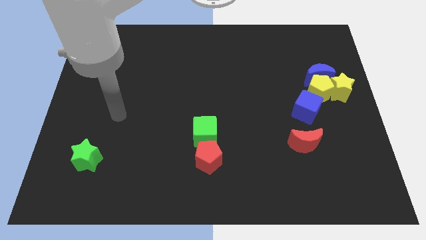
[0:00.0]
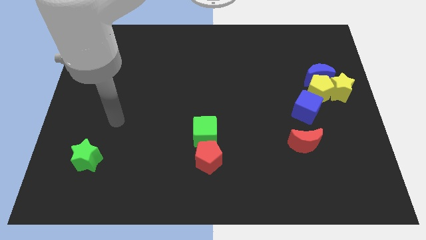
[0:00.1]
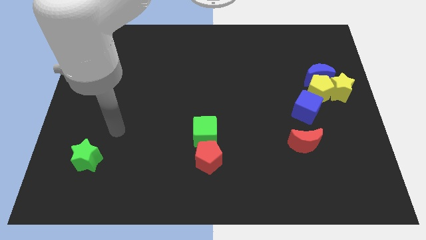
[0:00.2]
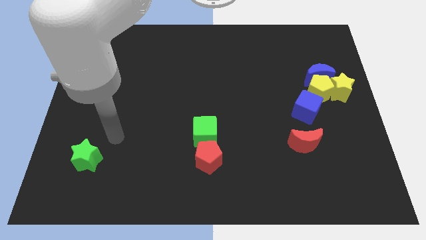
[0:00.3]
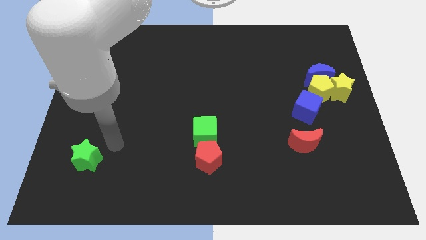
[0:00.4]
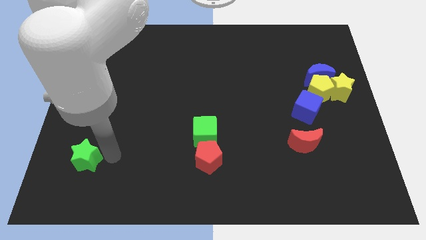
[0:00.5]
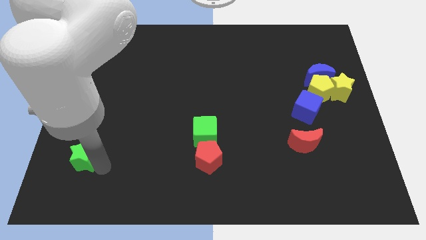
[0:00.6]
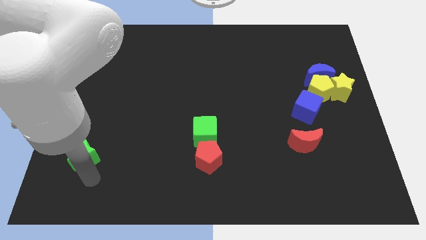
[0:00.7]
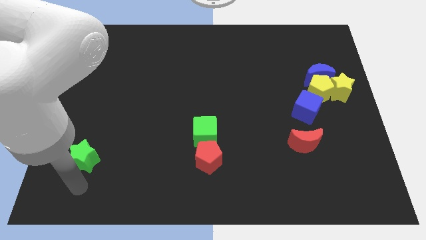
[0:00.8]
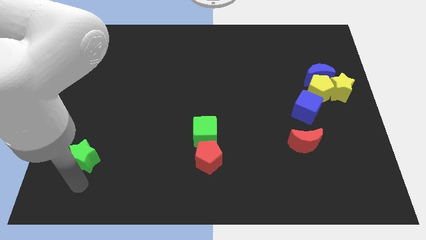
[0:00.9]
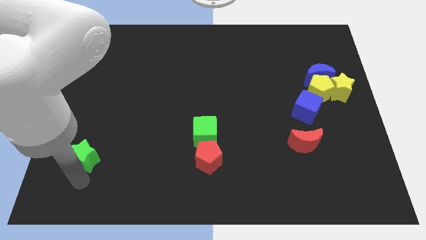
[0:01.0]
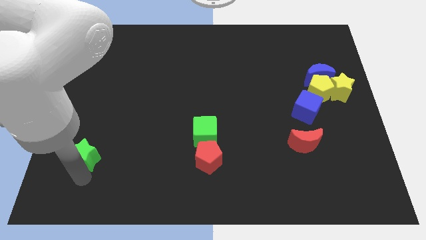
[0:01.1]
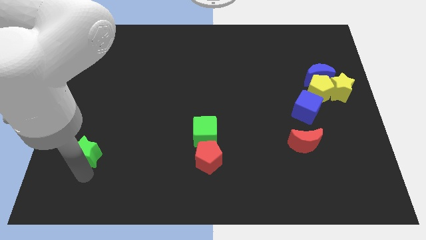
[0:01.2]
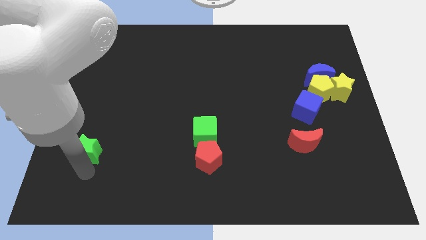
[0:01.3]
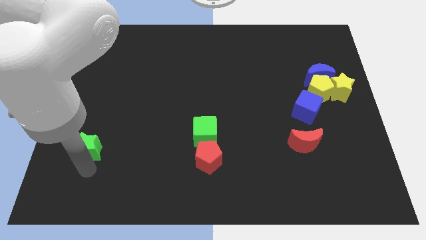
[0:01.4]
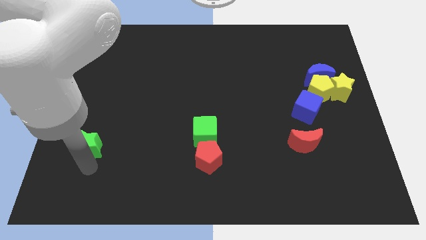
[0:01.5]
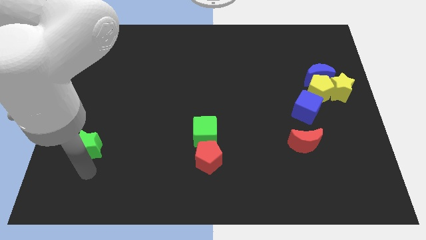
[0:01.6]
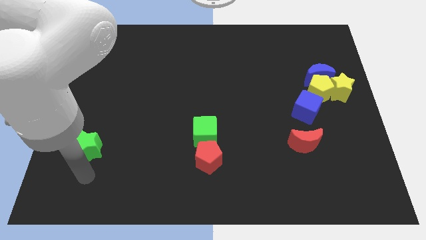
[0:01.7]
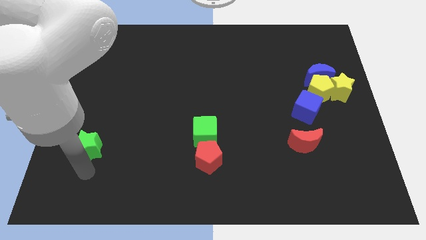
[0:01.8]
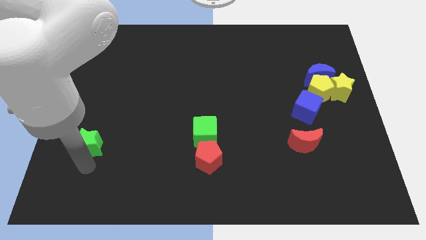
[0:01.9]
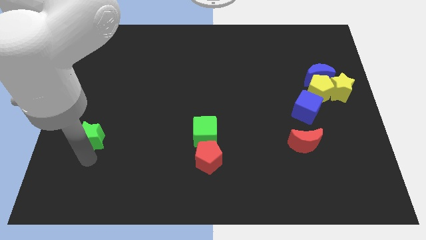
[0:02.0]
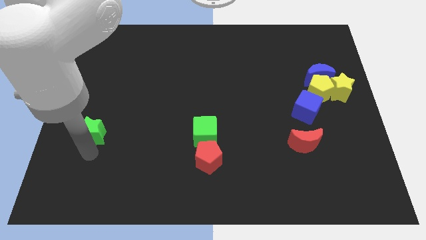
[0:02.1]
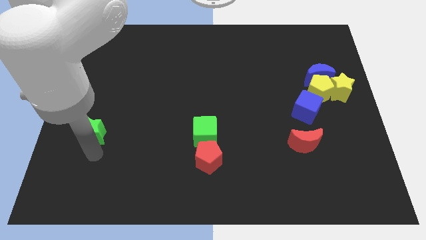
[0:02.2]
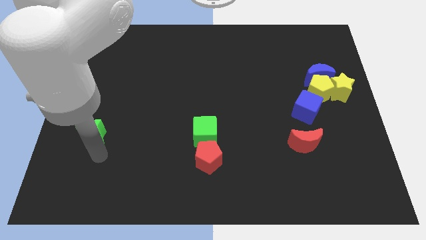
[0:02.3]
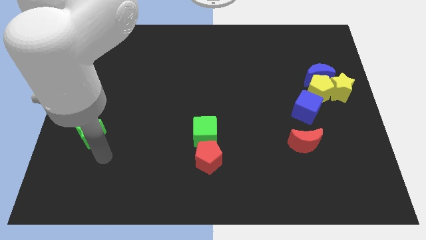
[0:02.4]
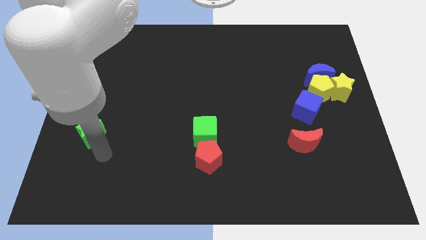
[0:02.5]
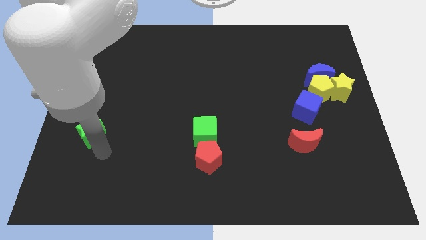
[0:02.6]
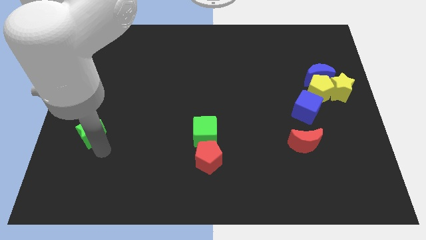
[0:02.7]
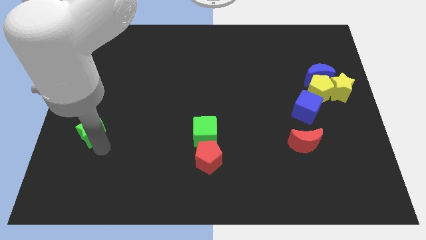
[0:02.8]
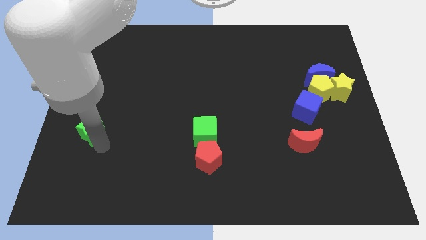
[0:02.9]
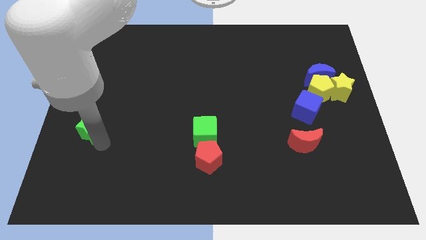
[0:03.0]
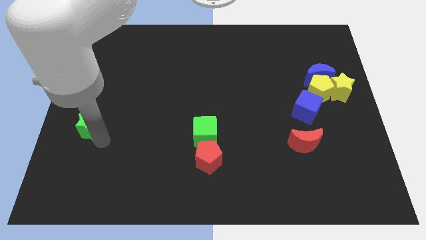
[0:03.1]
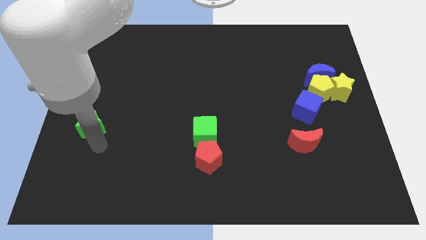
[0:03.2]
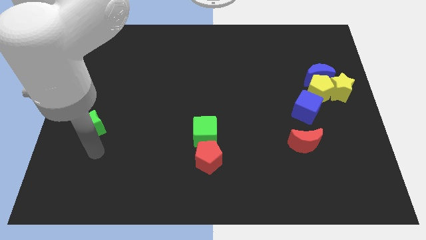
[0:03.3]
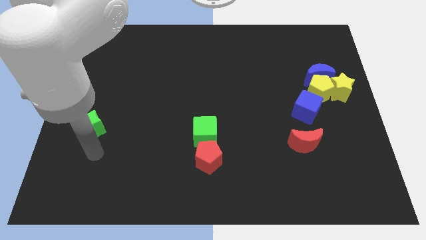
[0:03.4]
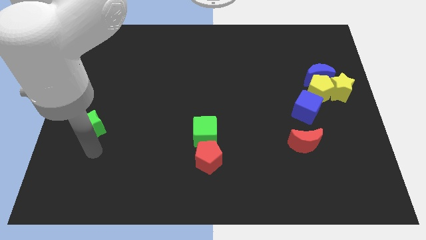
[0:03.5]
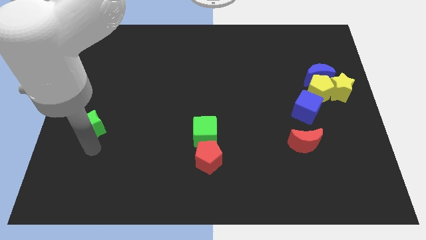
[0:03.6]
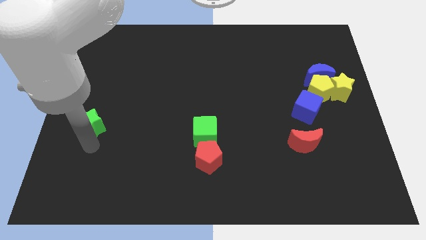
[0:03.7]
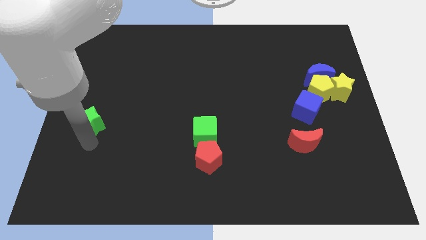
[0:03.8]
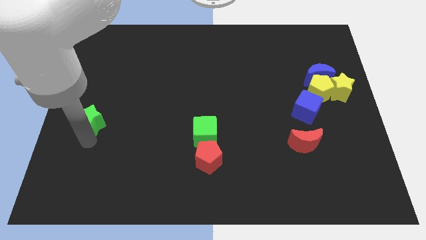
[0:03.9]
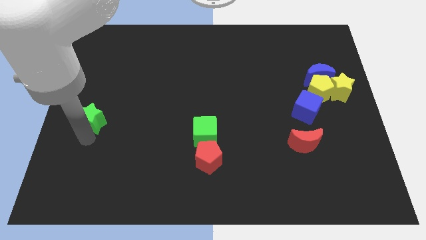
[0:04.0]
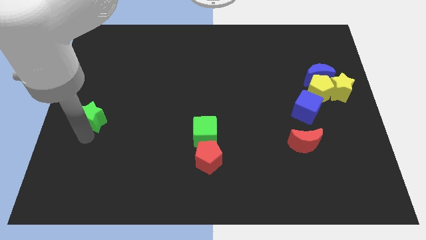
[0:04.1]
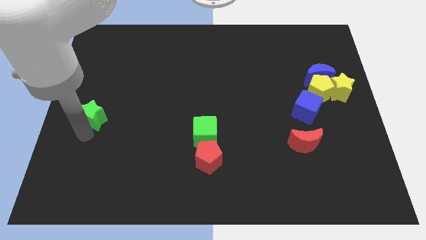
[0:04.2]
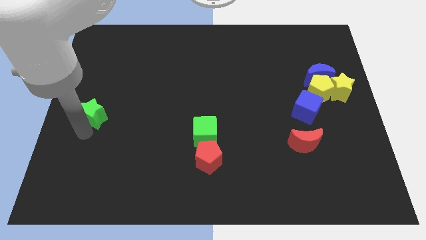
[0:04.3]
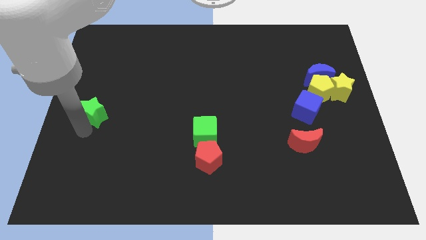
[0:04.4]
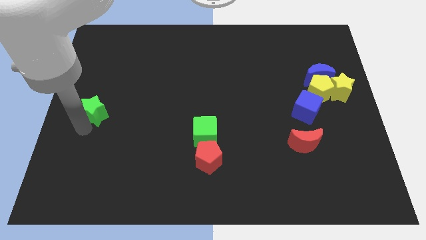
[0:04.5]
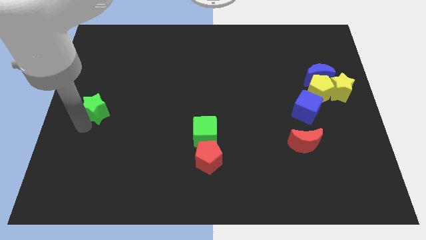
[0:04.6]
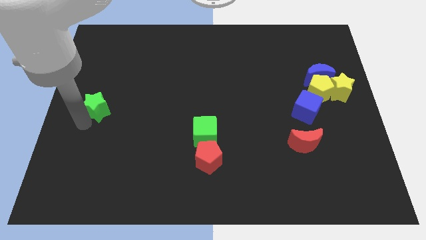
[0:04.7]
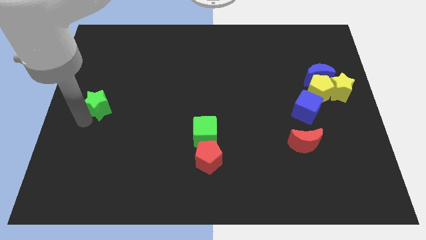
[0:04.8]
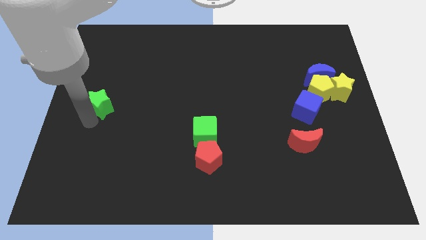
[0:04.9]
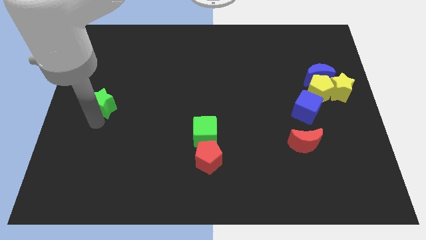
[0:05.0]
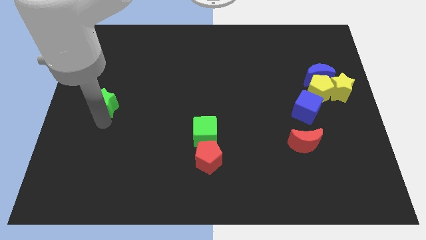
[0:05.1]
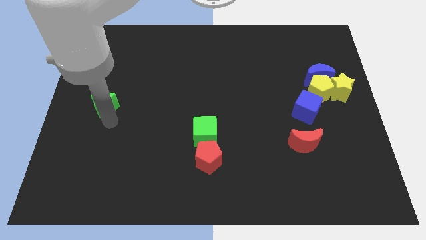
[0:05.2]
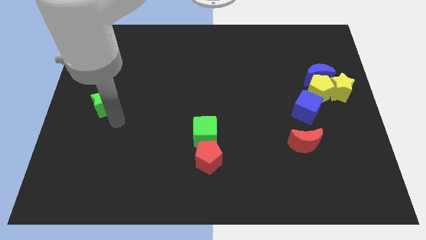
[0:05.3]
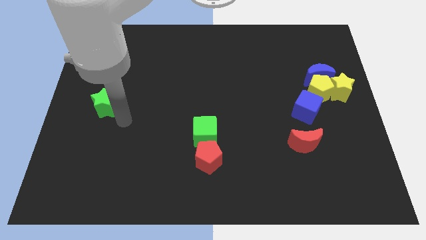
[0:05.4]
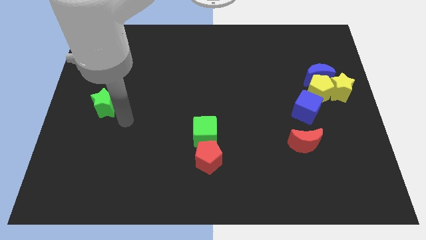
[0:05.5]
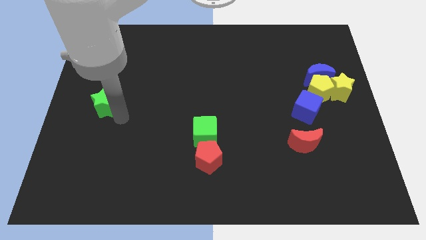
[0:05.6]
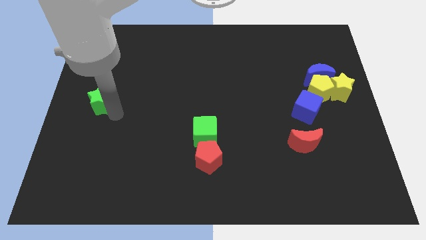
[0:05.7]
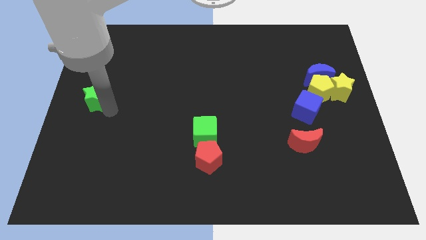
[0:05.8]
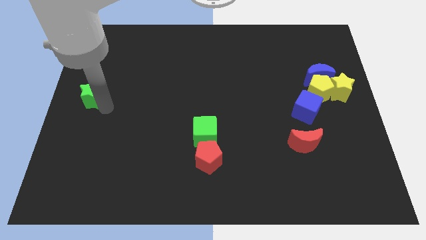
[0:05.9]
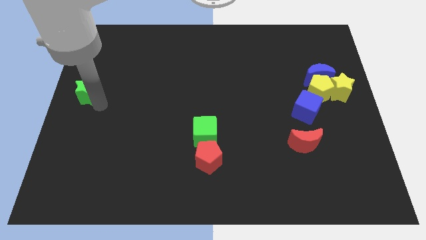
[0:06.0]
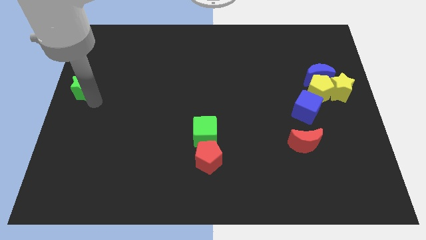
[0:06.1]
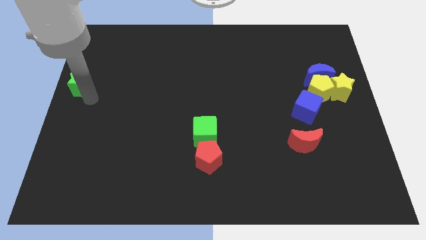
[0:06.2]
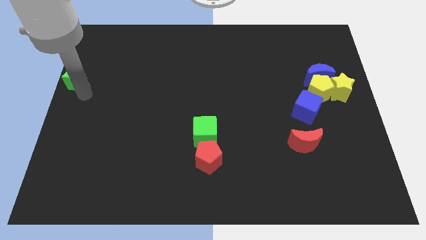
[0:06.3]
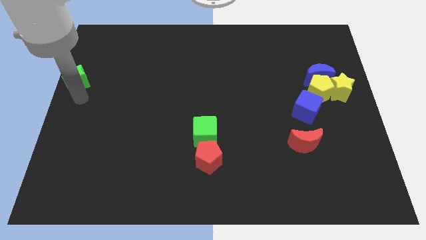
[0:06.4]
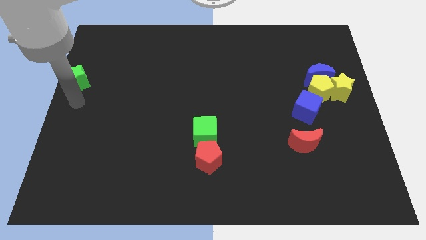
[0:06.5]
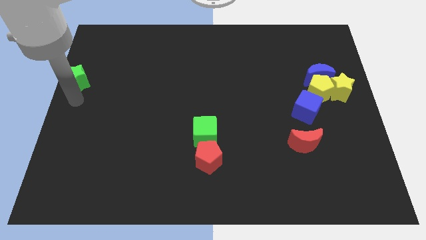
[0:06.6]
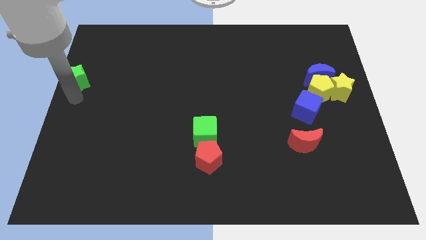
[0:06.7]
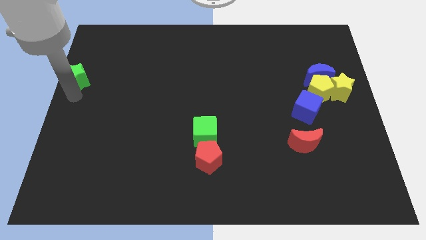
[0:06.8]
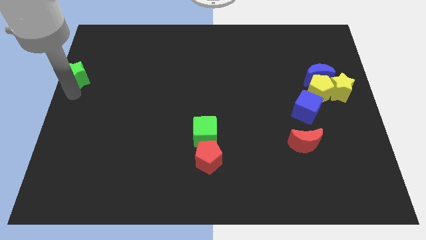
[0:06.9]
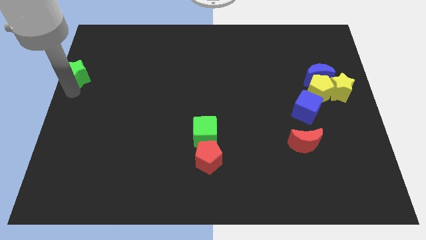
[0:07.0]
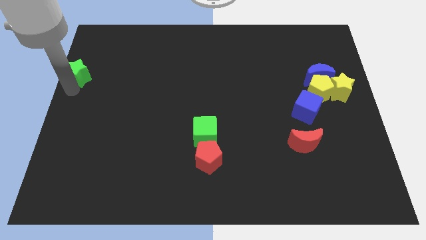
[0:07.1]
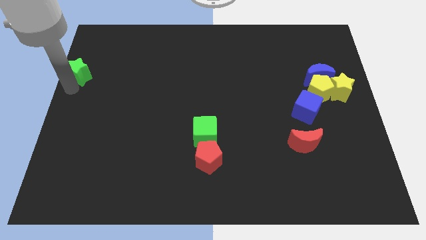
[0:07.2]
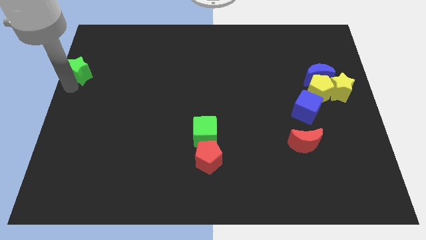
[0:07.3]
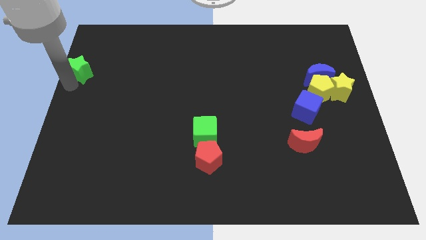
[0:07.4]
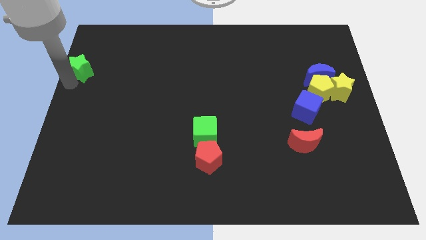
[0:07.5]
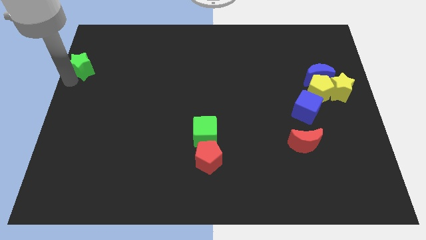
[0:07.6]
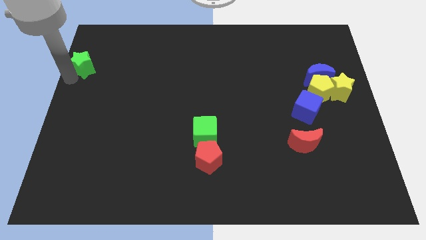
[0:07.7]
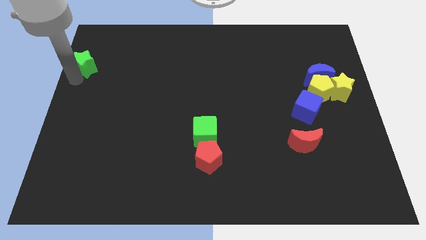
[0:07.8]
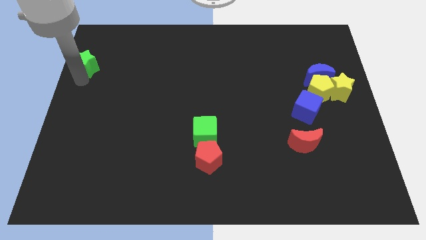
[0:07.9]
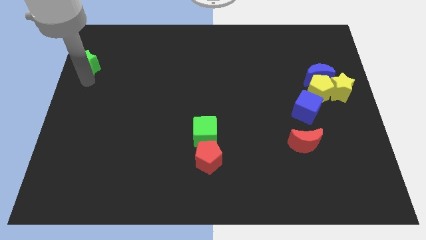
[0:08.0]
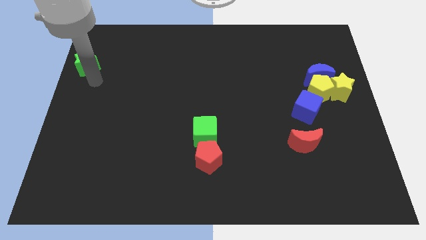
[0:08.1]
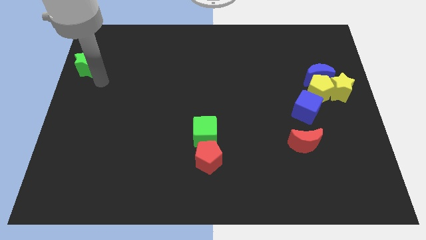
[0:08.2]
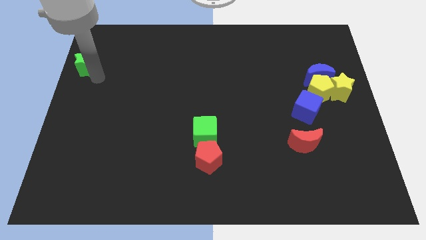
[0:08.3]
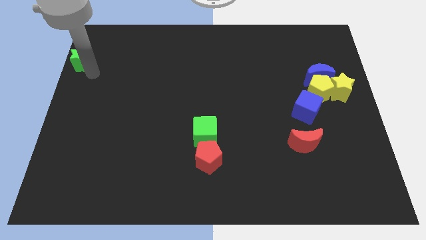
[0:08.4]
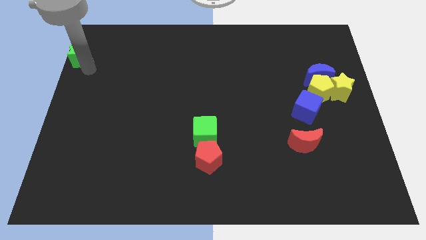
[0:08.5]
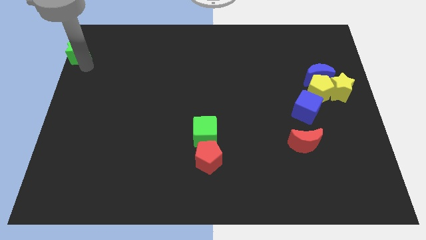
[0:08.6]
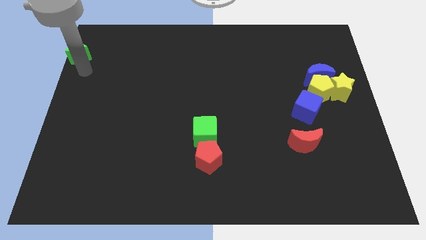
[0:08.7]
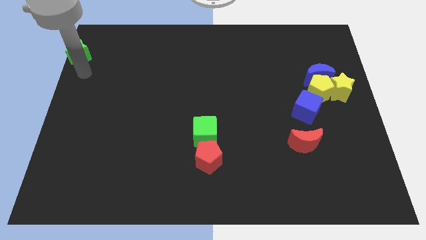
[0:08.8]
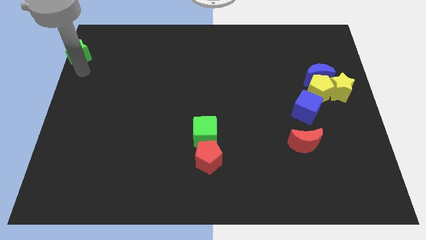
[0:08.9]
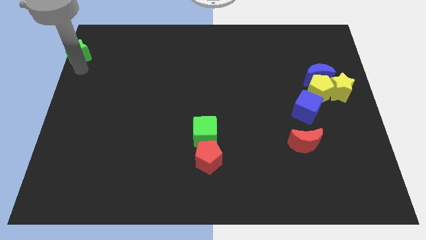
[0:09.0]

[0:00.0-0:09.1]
put the green star to the top left corner
